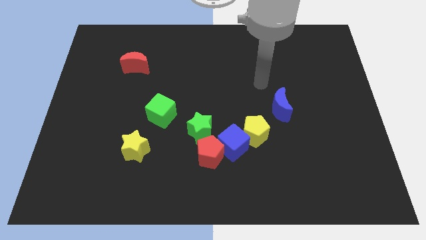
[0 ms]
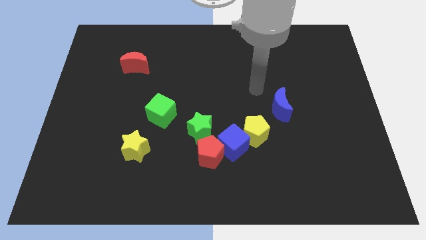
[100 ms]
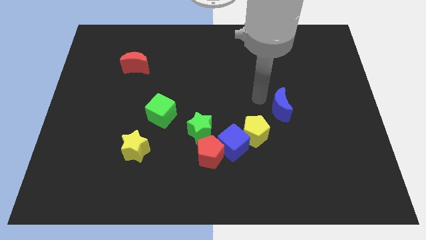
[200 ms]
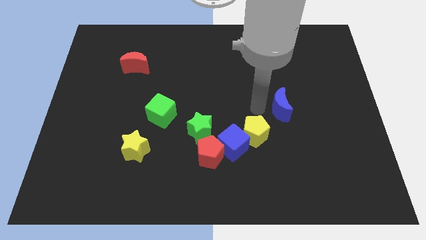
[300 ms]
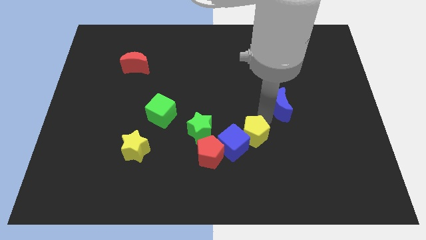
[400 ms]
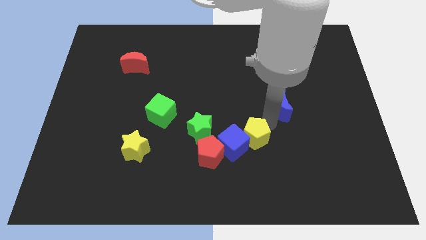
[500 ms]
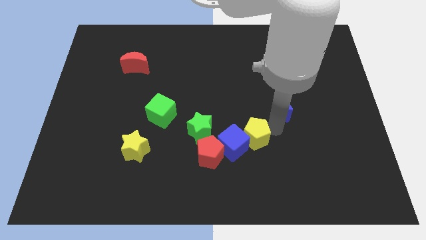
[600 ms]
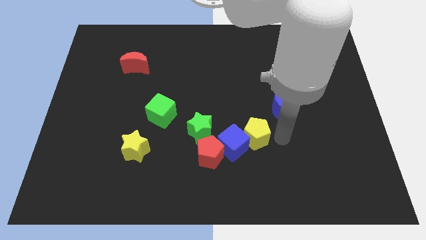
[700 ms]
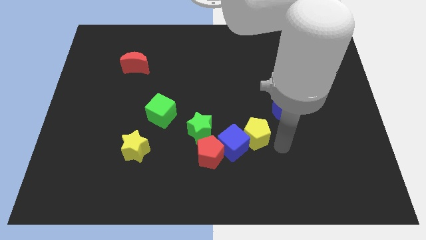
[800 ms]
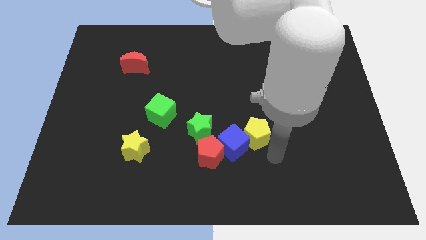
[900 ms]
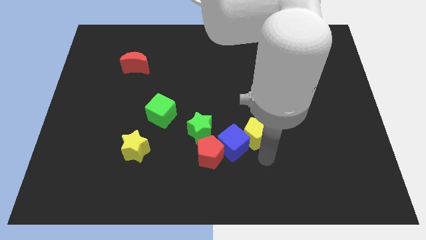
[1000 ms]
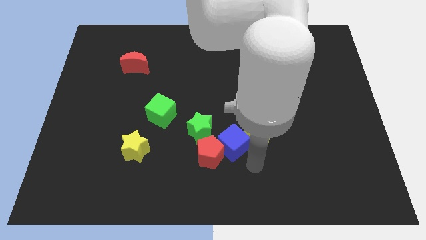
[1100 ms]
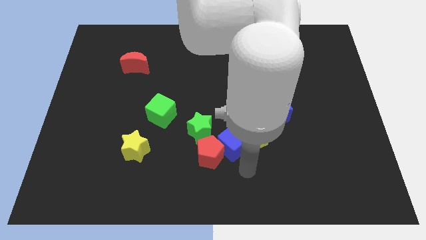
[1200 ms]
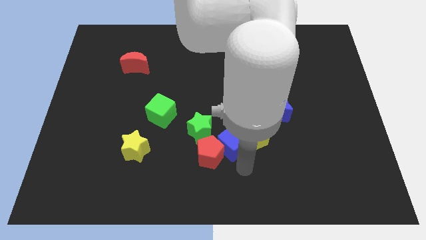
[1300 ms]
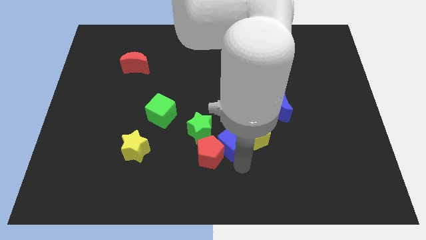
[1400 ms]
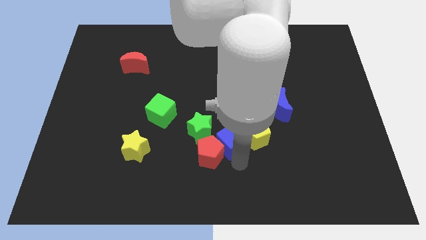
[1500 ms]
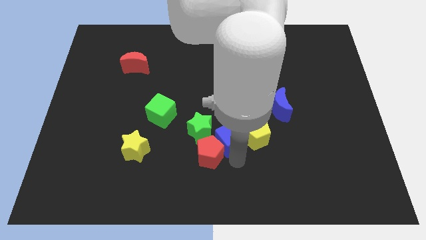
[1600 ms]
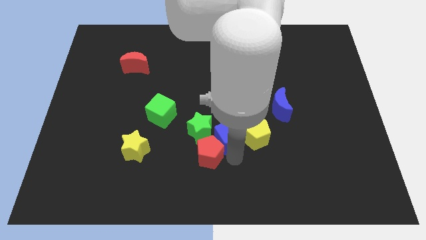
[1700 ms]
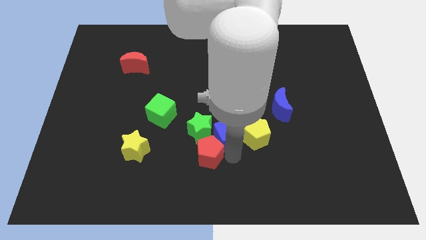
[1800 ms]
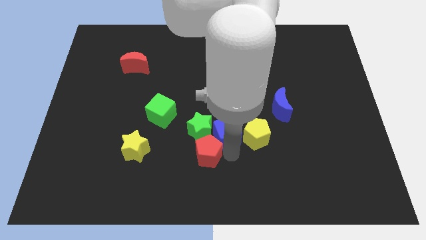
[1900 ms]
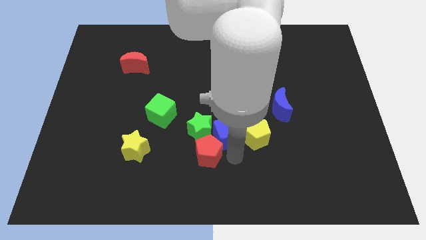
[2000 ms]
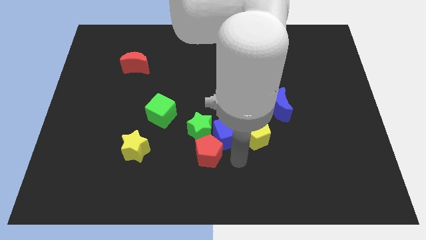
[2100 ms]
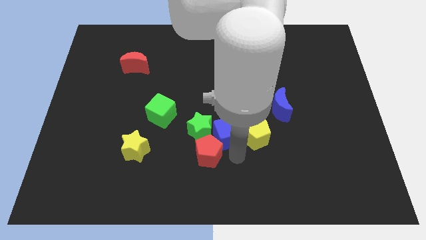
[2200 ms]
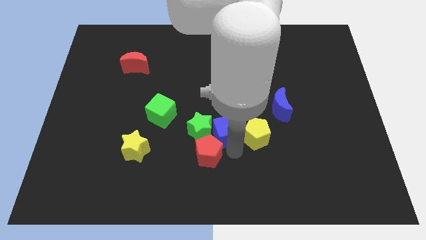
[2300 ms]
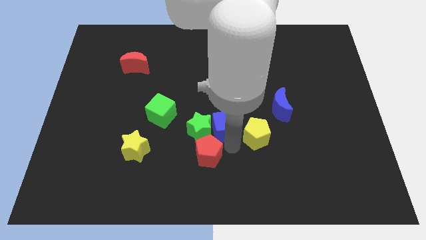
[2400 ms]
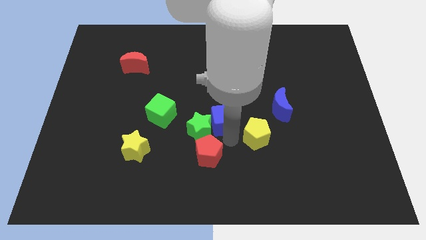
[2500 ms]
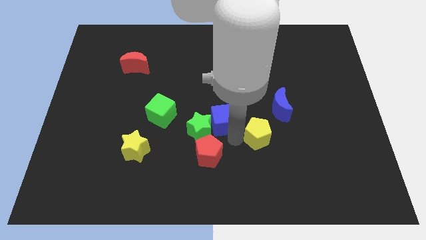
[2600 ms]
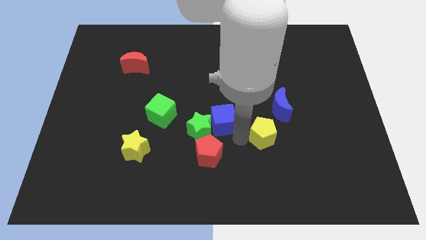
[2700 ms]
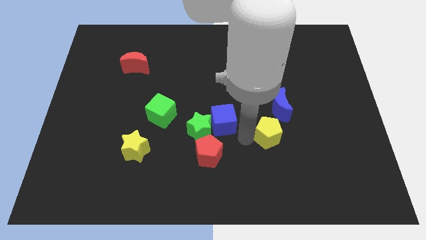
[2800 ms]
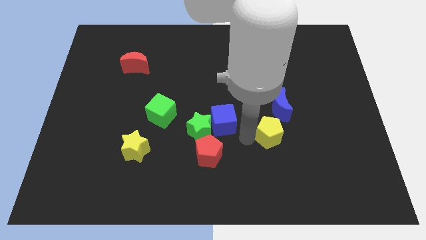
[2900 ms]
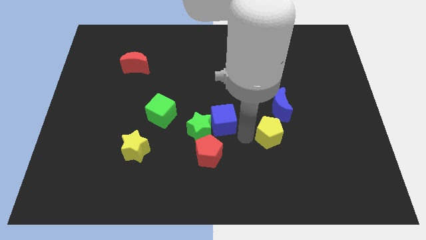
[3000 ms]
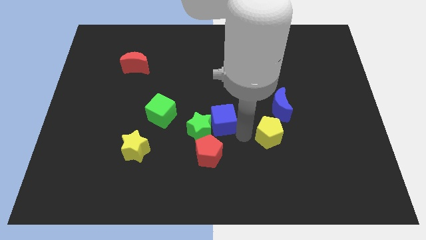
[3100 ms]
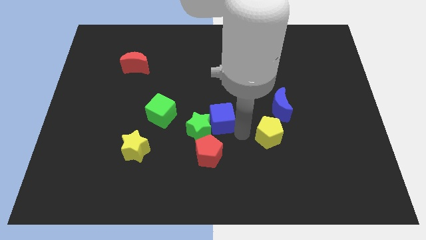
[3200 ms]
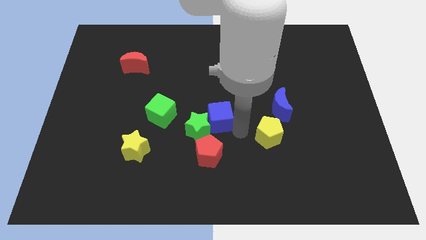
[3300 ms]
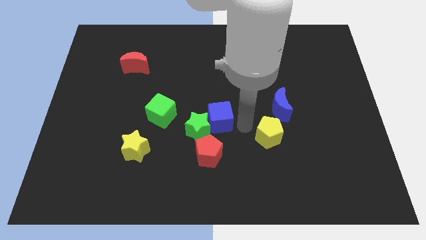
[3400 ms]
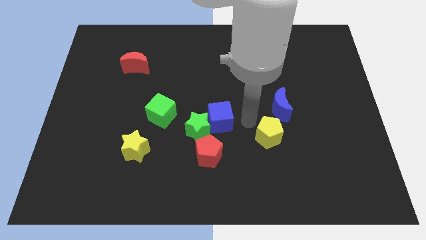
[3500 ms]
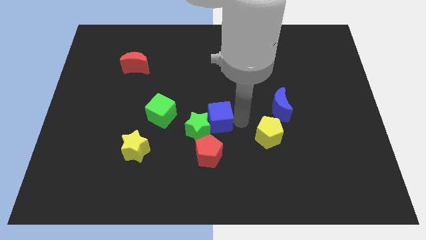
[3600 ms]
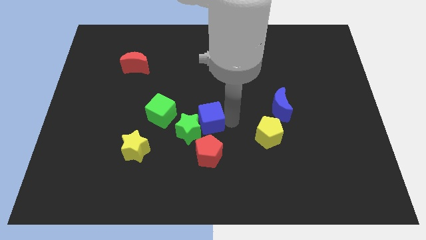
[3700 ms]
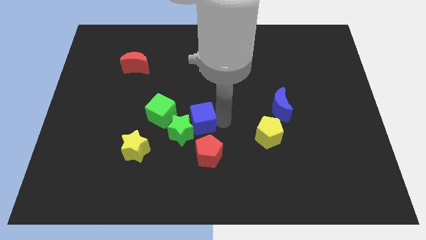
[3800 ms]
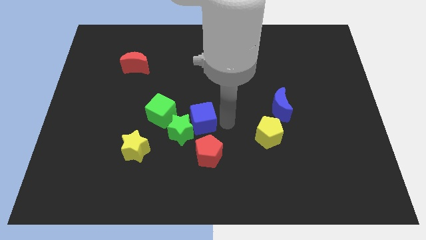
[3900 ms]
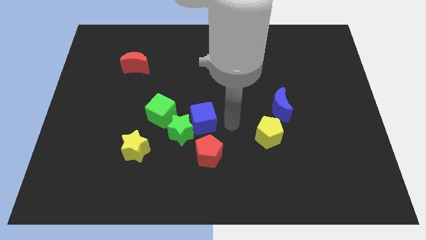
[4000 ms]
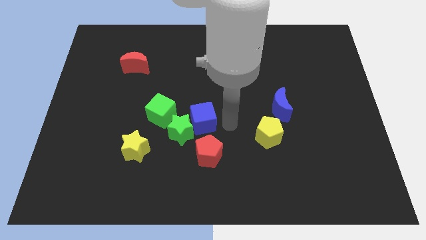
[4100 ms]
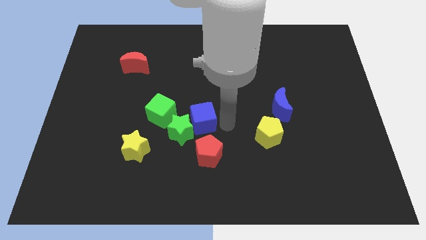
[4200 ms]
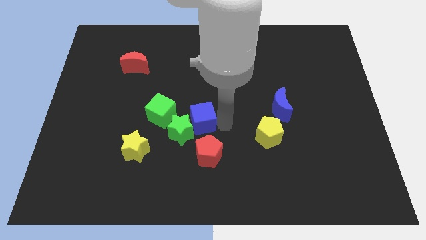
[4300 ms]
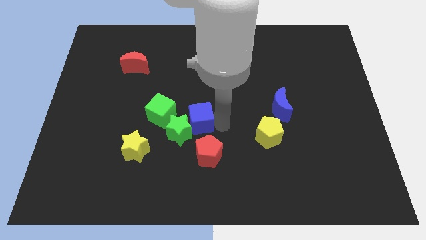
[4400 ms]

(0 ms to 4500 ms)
slide the blue cube to the bottom right of the green cube

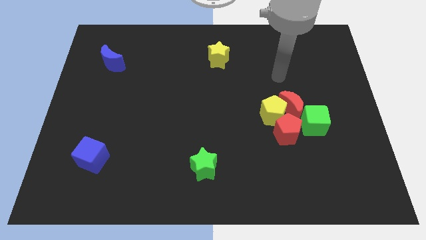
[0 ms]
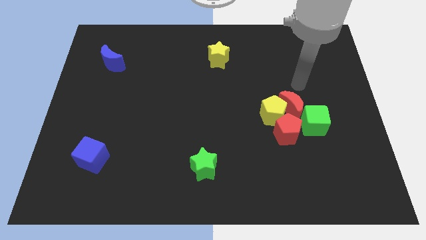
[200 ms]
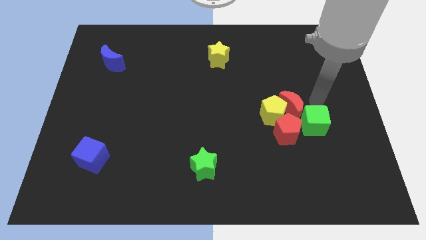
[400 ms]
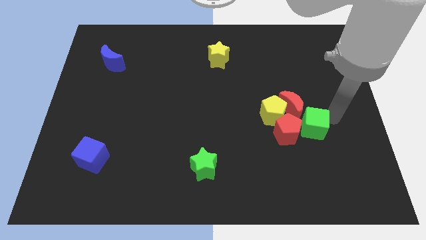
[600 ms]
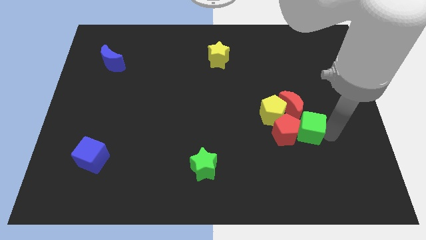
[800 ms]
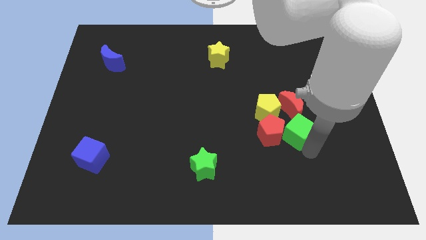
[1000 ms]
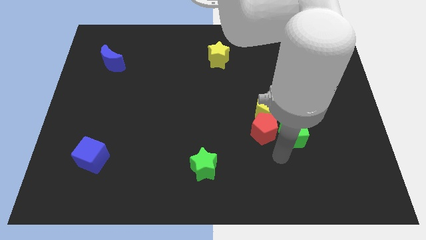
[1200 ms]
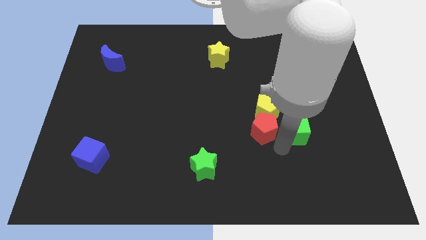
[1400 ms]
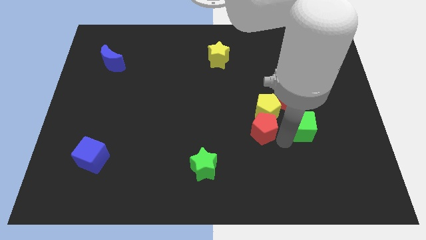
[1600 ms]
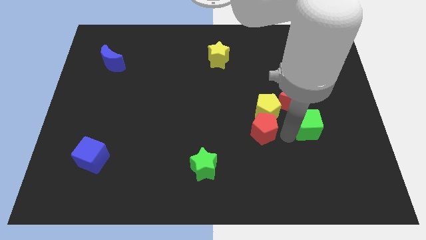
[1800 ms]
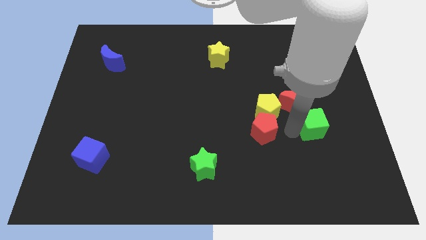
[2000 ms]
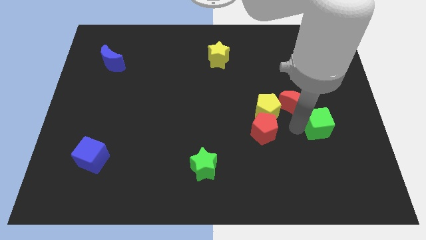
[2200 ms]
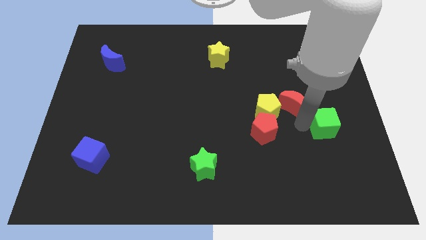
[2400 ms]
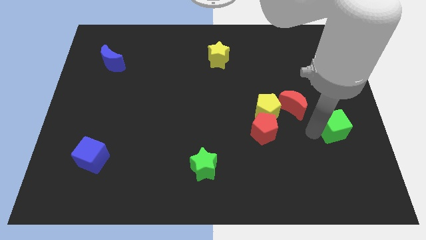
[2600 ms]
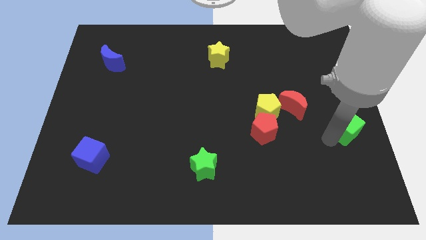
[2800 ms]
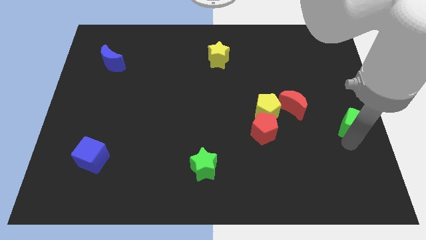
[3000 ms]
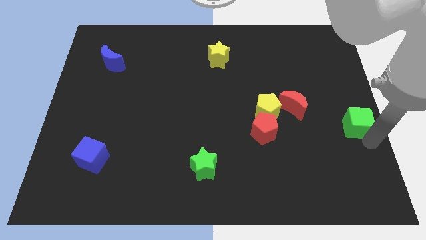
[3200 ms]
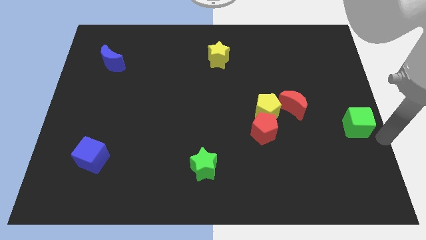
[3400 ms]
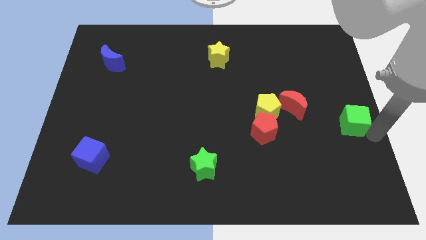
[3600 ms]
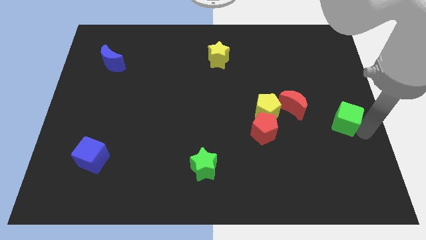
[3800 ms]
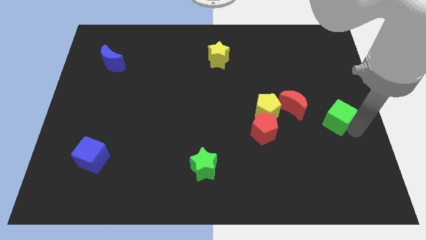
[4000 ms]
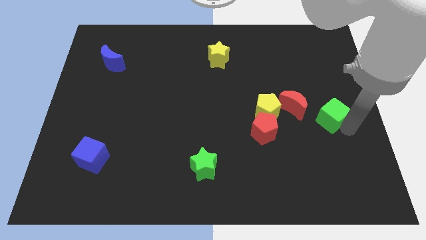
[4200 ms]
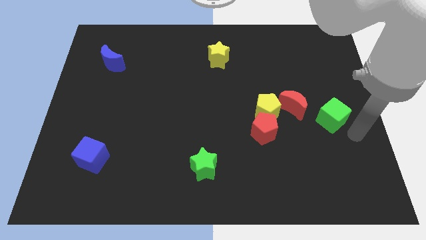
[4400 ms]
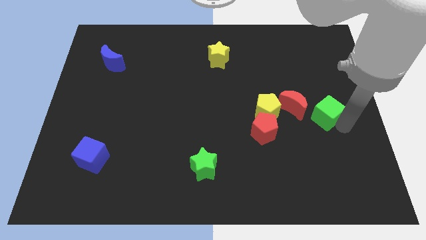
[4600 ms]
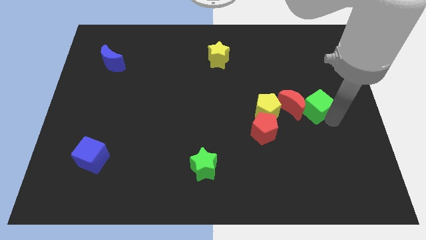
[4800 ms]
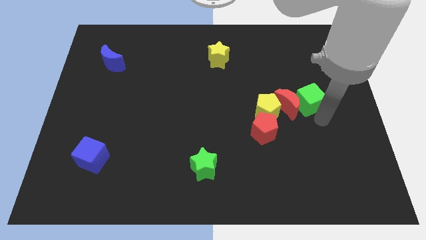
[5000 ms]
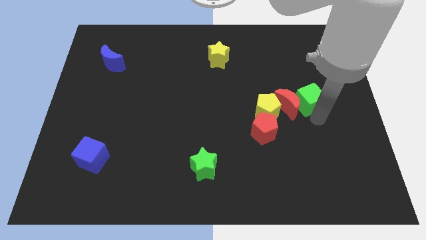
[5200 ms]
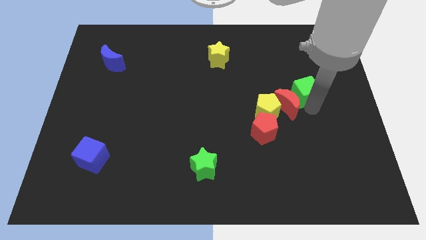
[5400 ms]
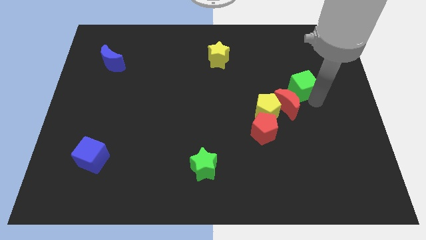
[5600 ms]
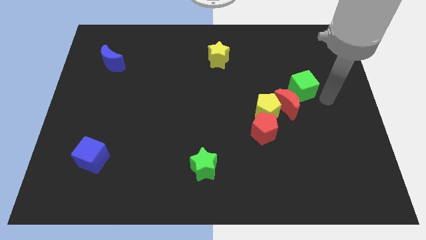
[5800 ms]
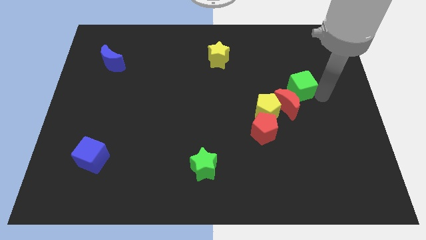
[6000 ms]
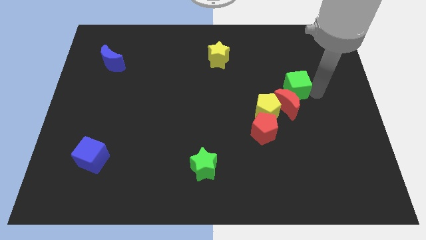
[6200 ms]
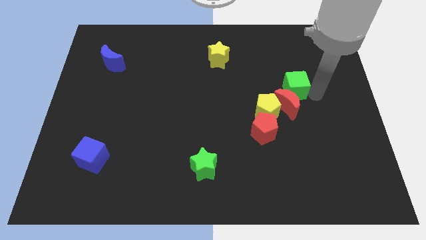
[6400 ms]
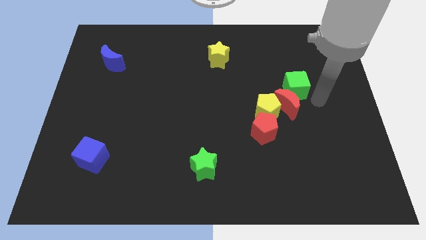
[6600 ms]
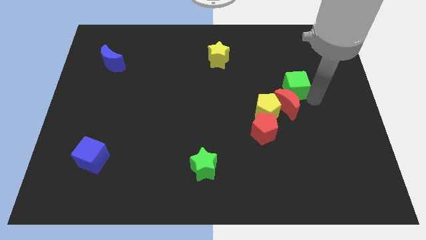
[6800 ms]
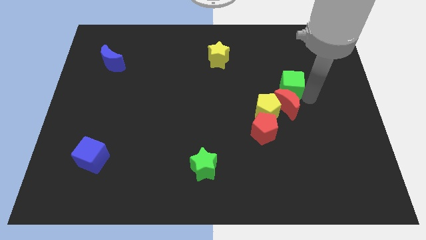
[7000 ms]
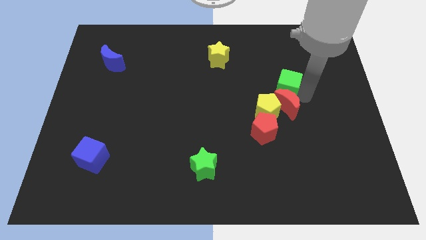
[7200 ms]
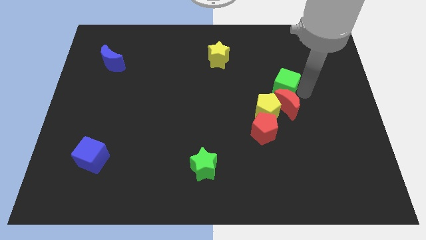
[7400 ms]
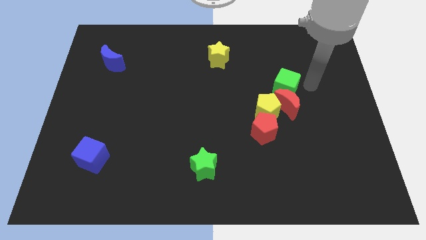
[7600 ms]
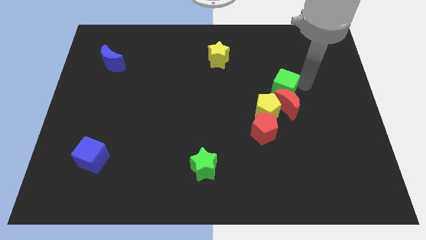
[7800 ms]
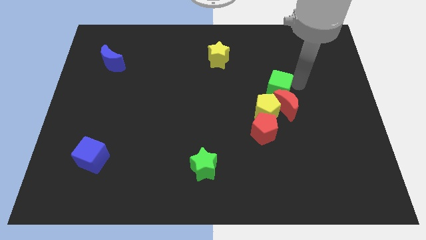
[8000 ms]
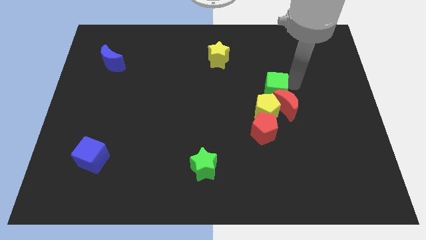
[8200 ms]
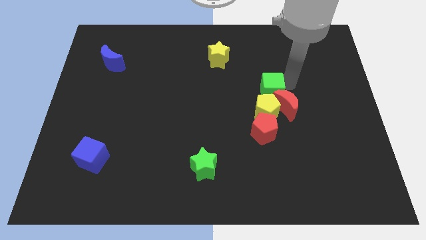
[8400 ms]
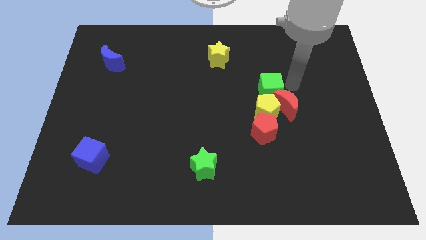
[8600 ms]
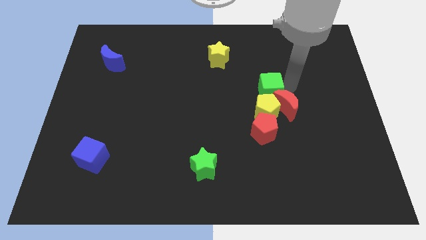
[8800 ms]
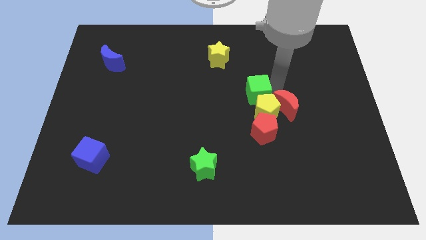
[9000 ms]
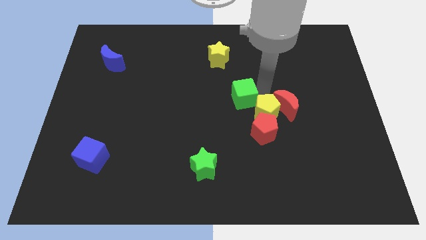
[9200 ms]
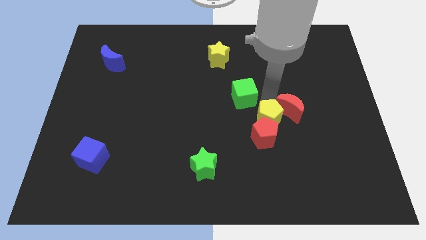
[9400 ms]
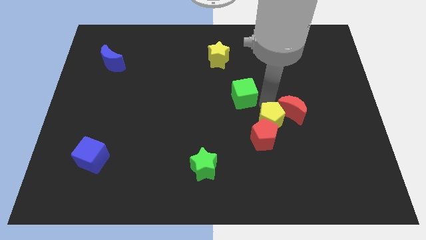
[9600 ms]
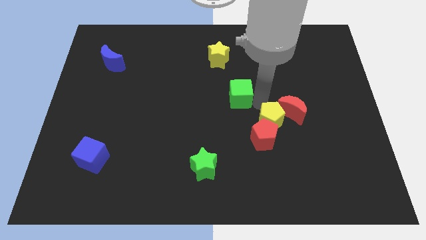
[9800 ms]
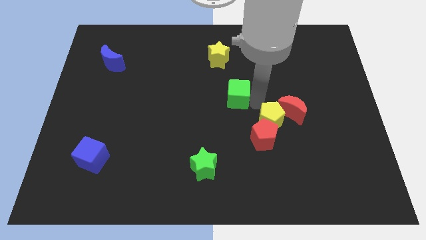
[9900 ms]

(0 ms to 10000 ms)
push the green cube to the bottom side of the yellow star
